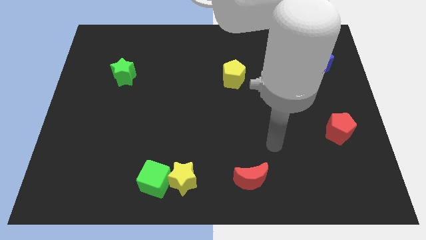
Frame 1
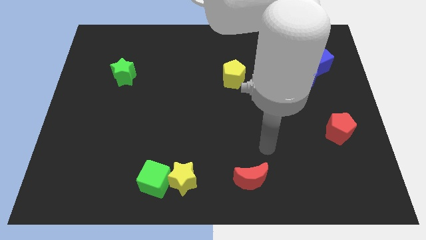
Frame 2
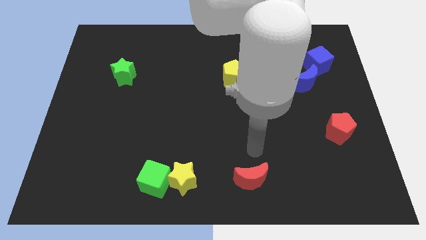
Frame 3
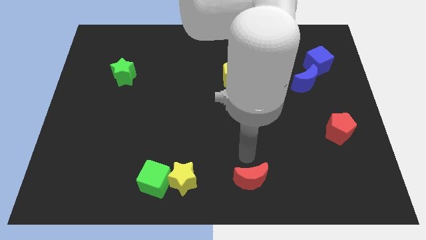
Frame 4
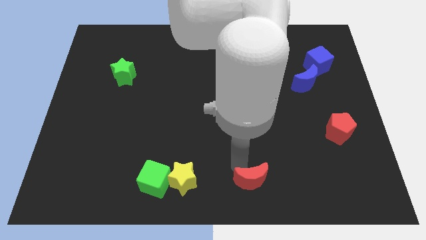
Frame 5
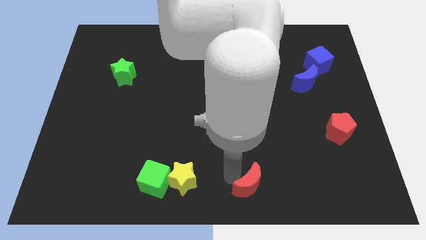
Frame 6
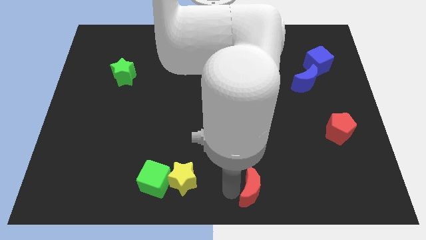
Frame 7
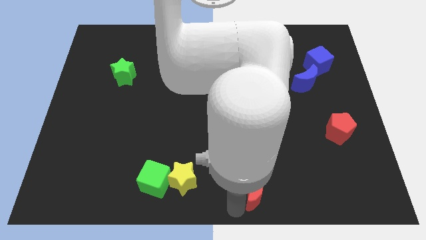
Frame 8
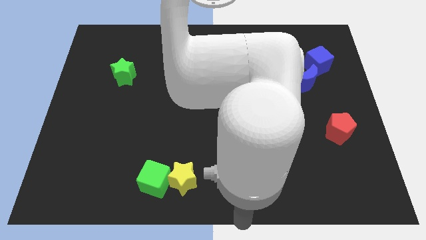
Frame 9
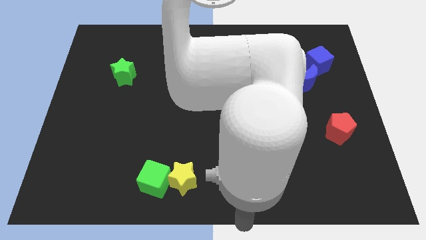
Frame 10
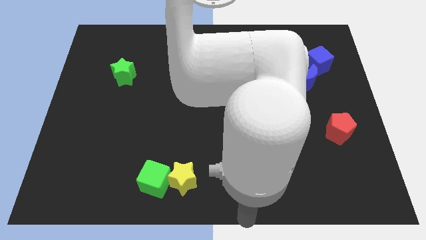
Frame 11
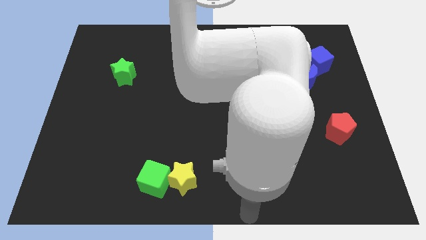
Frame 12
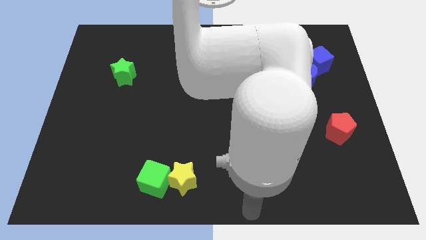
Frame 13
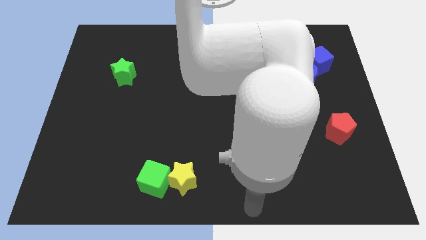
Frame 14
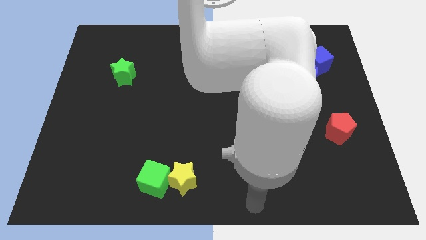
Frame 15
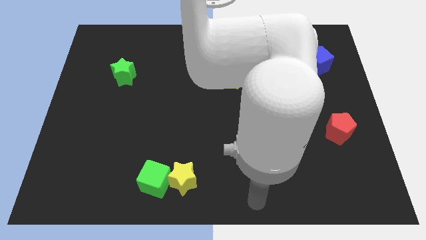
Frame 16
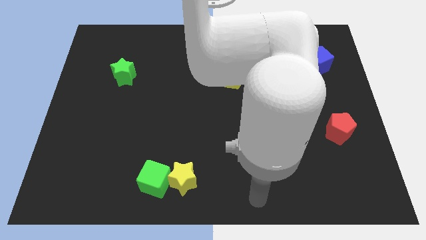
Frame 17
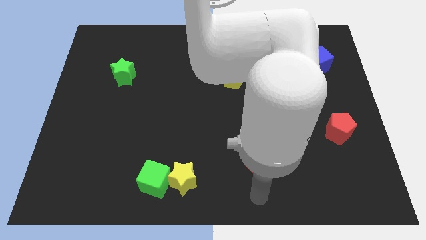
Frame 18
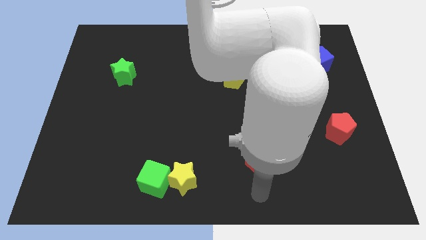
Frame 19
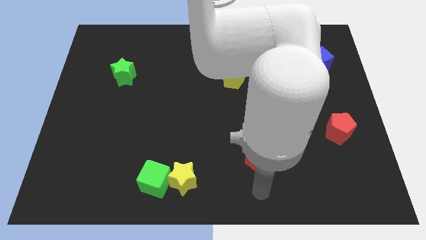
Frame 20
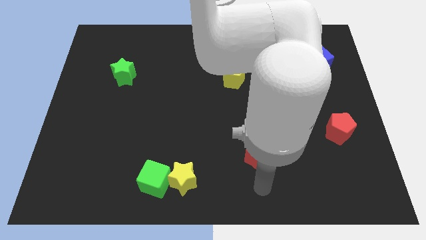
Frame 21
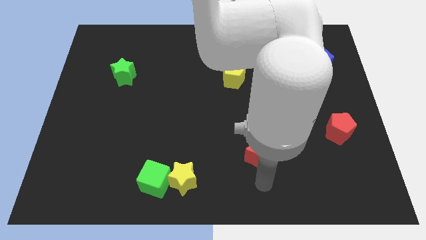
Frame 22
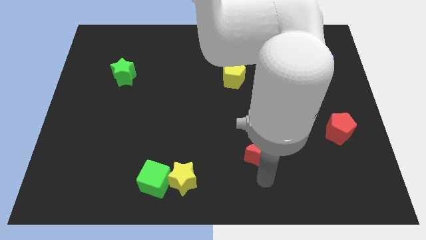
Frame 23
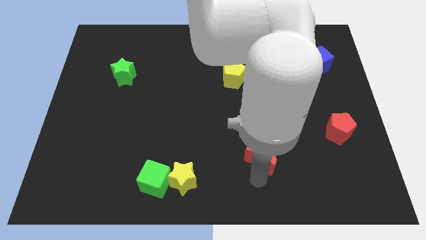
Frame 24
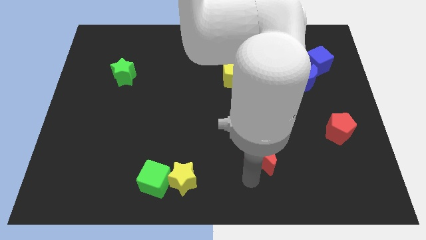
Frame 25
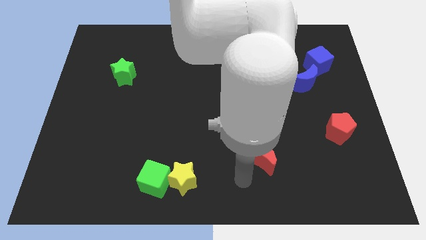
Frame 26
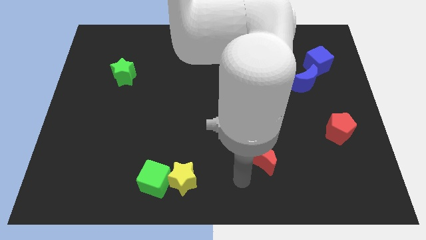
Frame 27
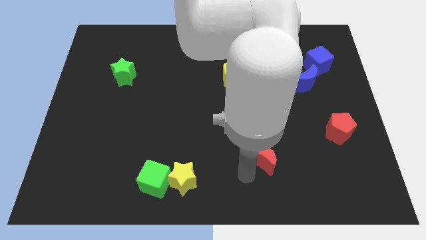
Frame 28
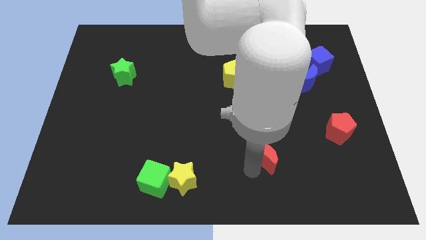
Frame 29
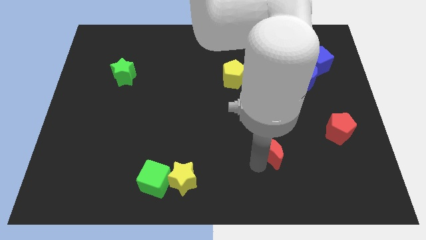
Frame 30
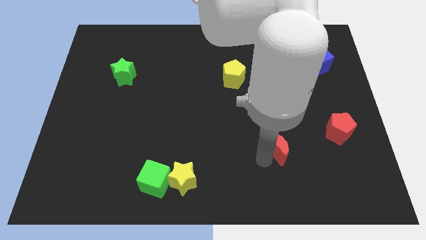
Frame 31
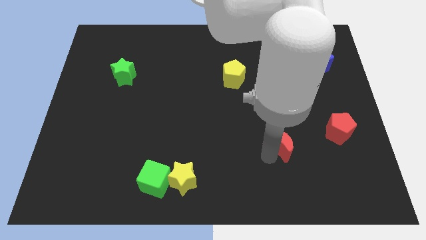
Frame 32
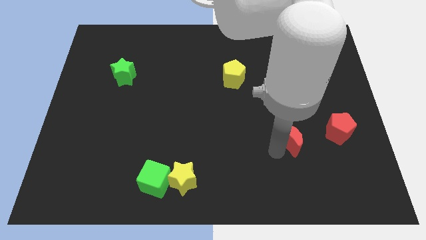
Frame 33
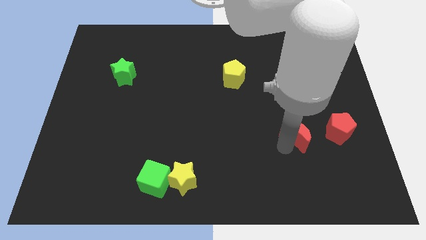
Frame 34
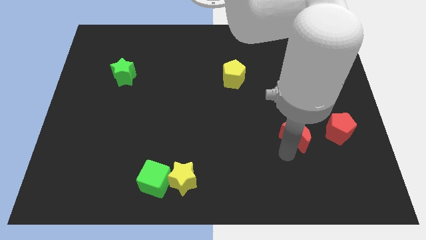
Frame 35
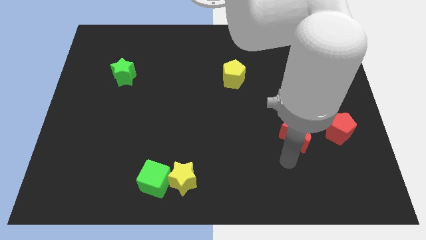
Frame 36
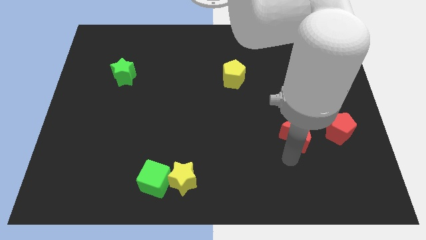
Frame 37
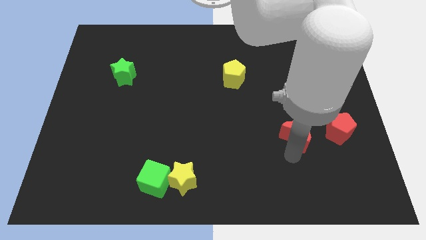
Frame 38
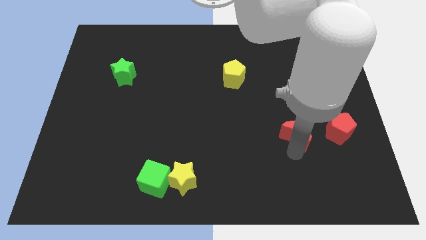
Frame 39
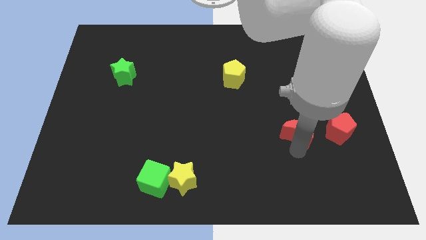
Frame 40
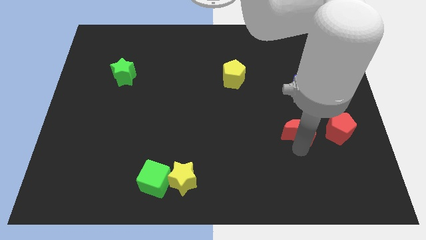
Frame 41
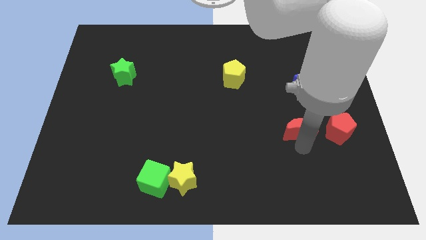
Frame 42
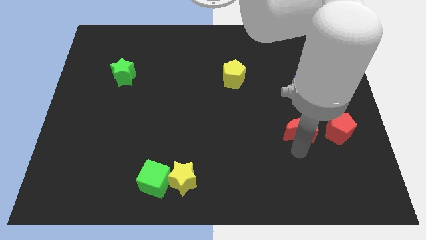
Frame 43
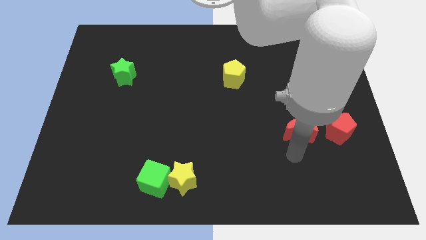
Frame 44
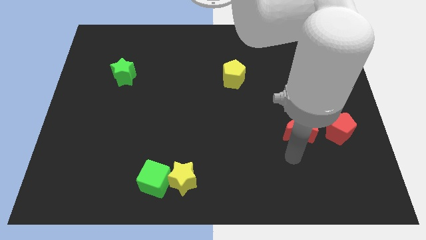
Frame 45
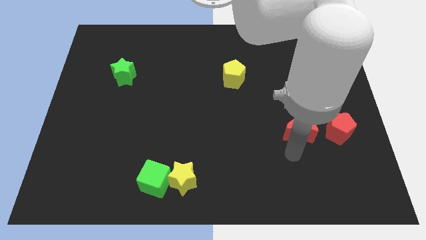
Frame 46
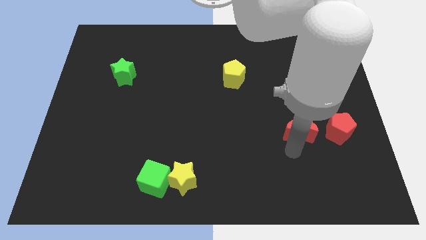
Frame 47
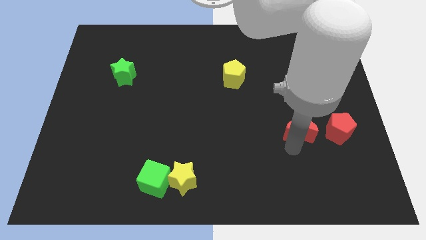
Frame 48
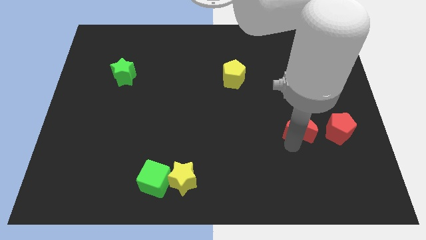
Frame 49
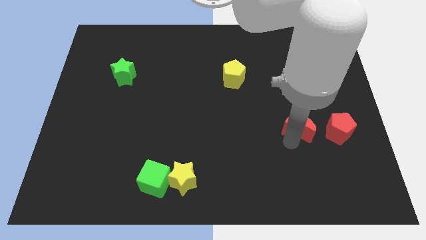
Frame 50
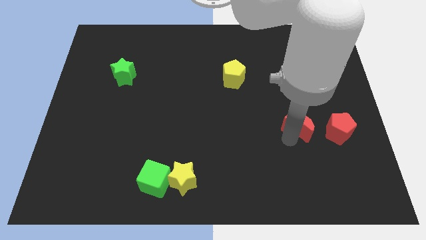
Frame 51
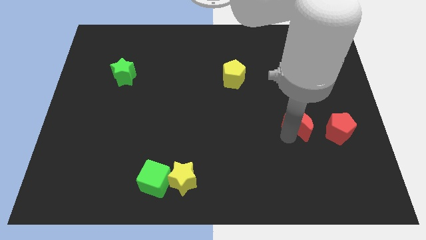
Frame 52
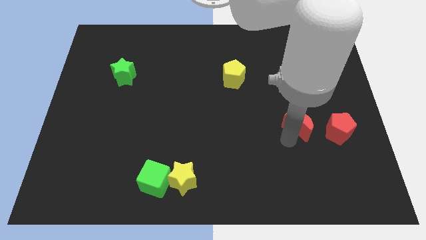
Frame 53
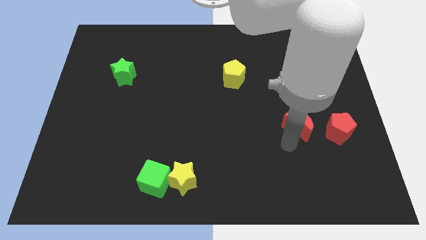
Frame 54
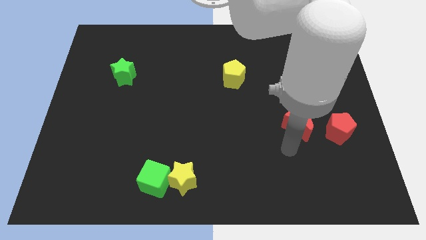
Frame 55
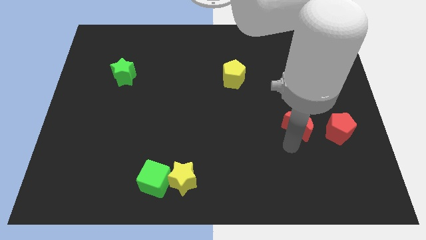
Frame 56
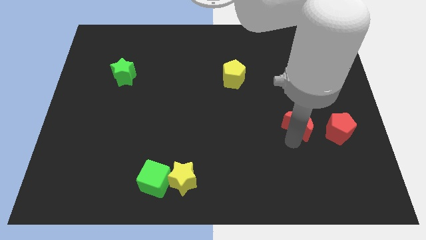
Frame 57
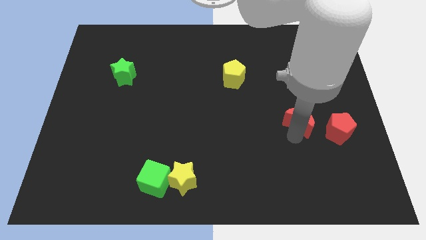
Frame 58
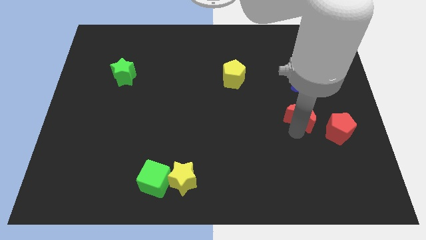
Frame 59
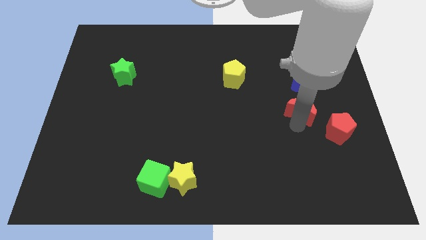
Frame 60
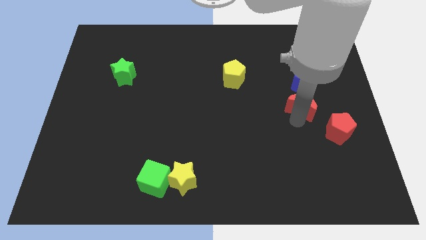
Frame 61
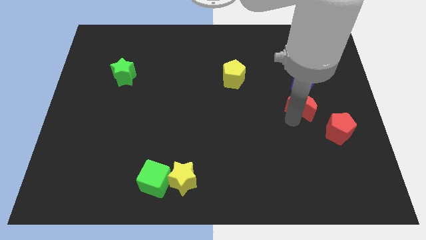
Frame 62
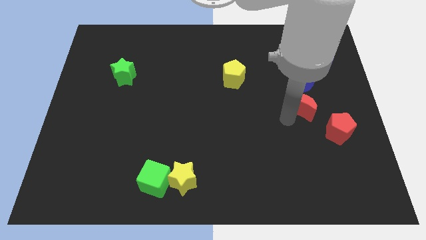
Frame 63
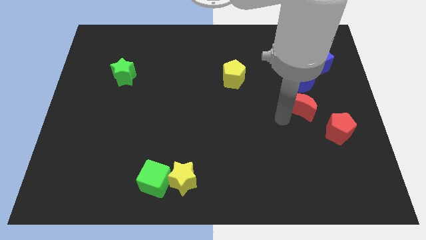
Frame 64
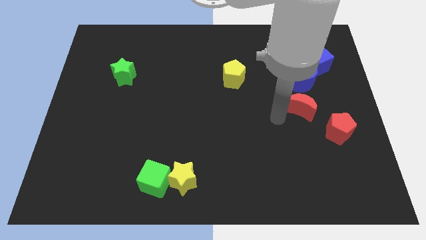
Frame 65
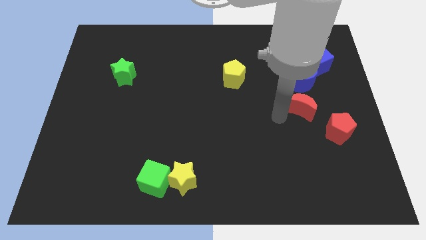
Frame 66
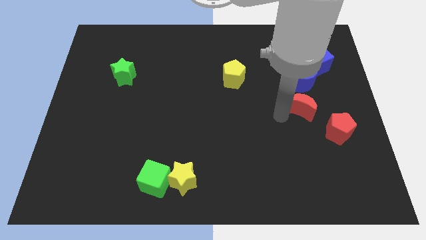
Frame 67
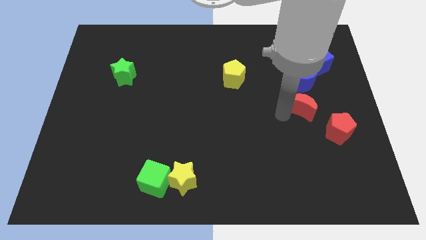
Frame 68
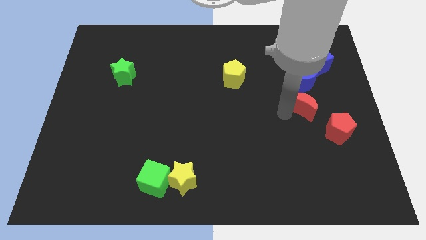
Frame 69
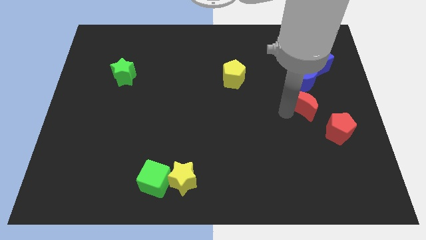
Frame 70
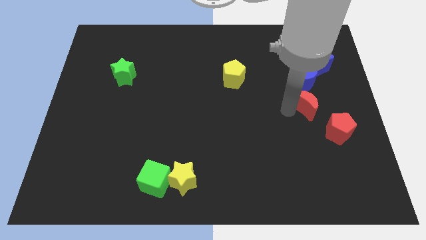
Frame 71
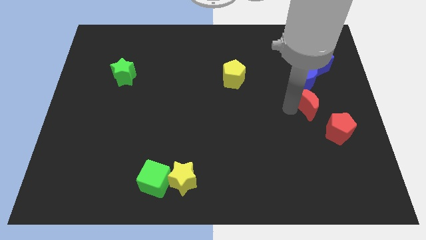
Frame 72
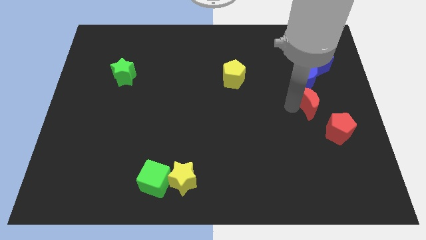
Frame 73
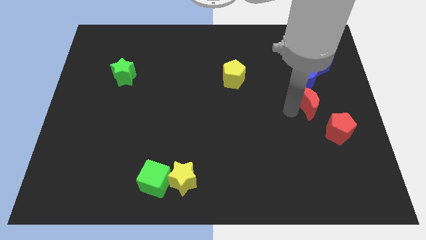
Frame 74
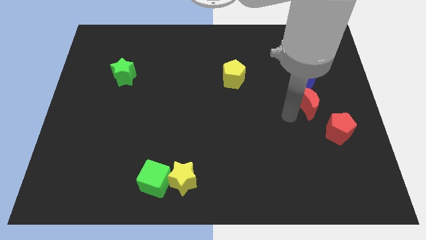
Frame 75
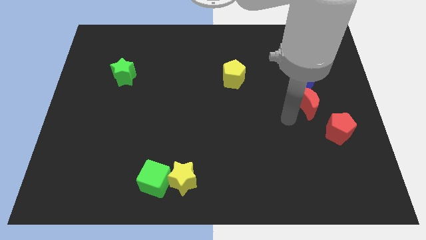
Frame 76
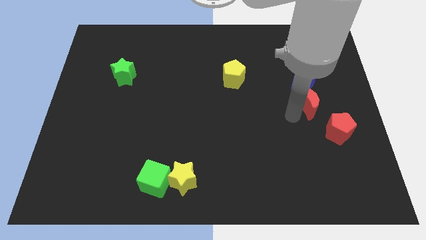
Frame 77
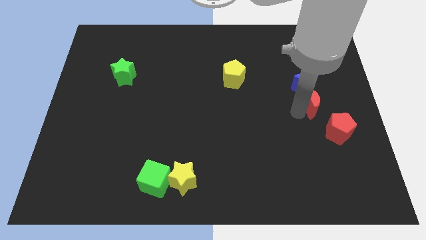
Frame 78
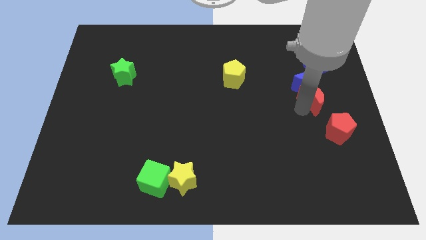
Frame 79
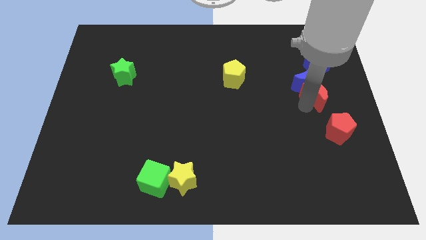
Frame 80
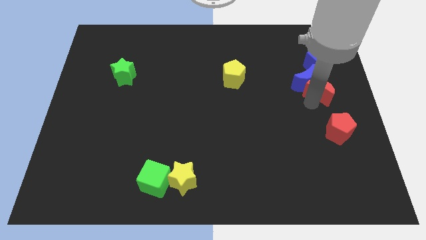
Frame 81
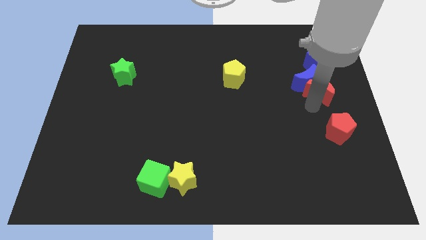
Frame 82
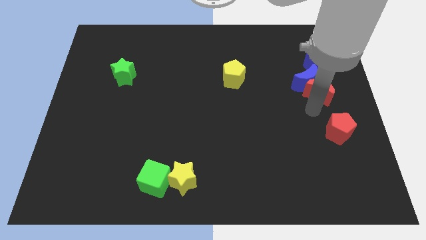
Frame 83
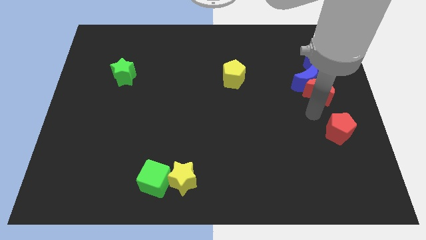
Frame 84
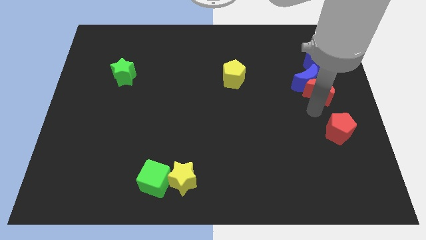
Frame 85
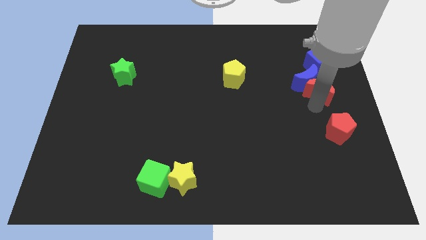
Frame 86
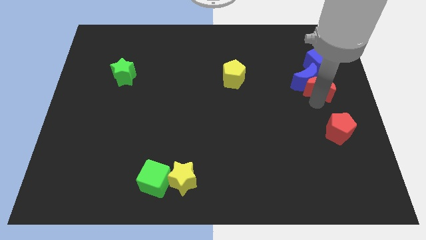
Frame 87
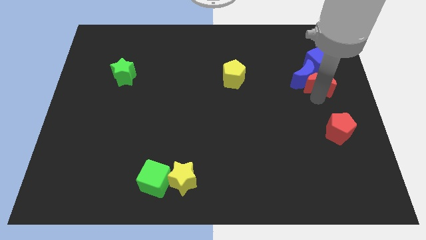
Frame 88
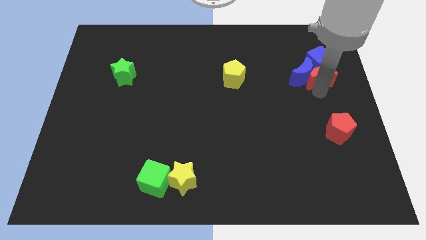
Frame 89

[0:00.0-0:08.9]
slide the red moon towards the blue cube
